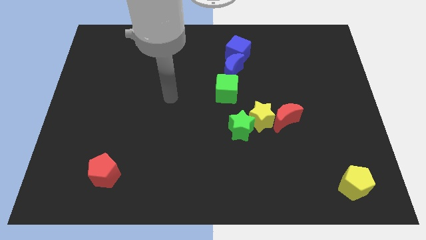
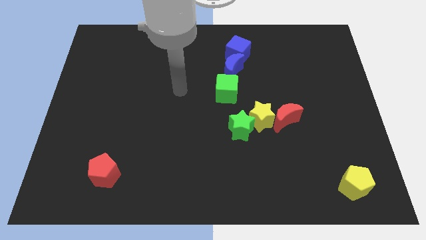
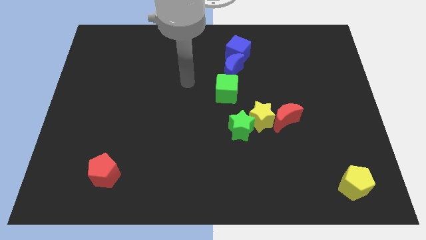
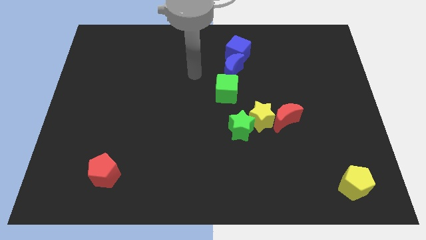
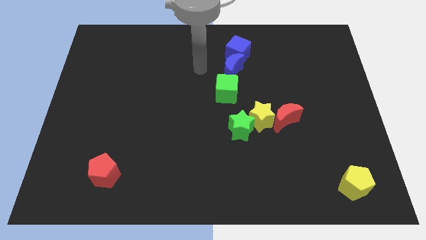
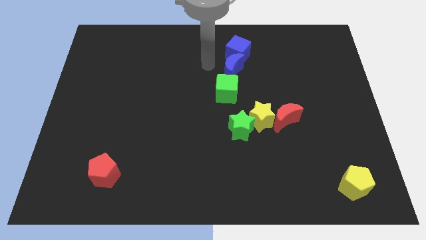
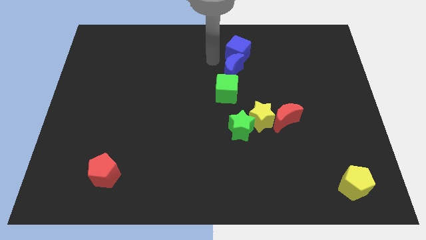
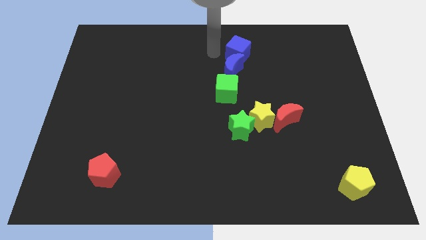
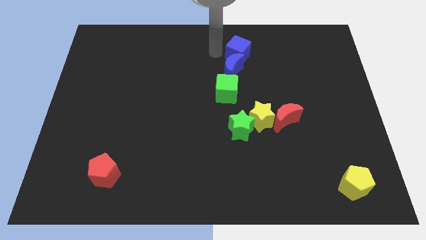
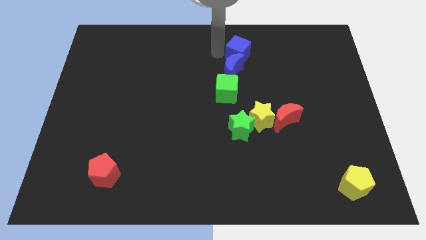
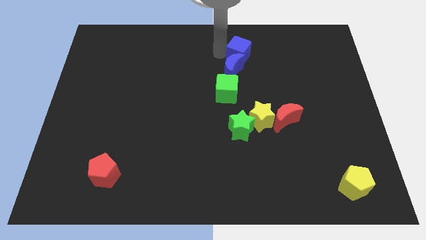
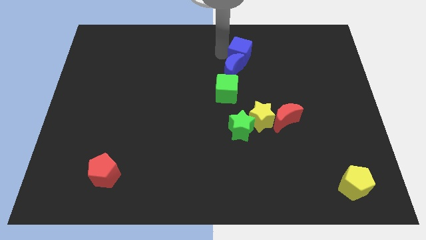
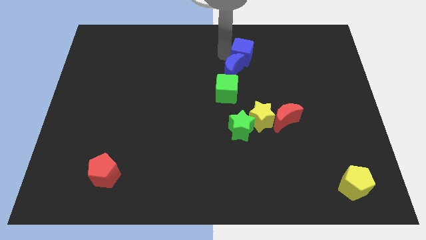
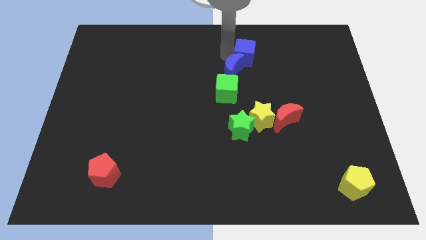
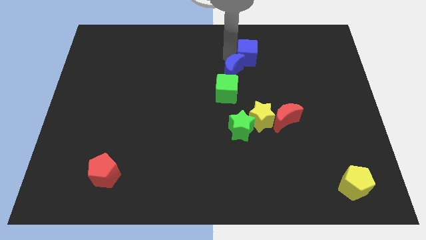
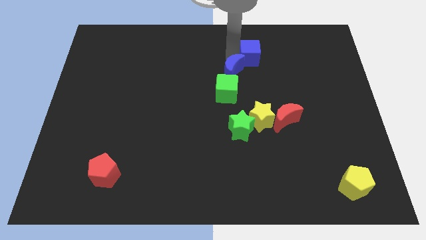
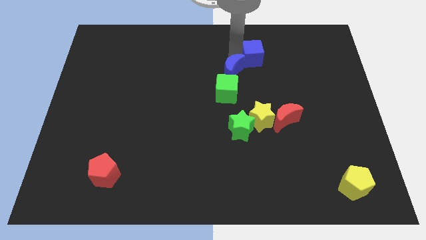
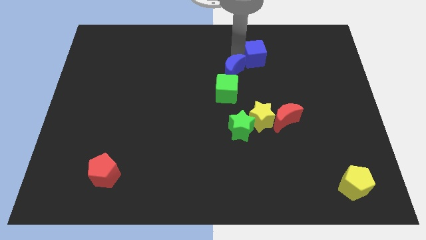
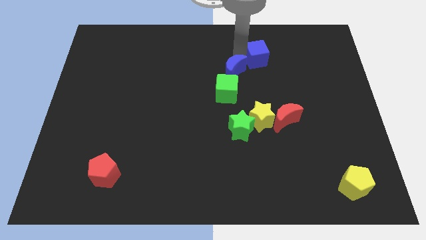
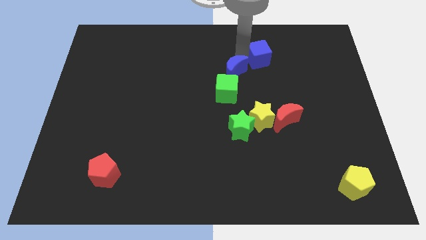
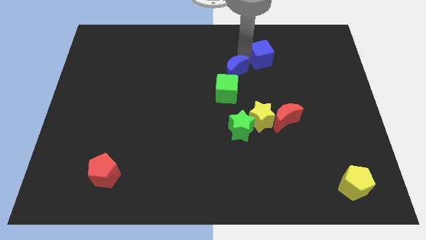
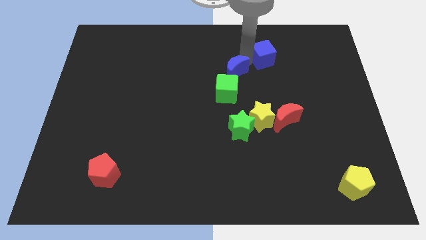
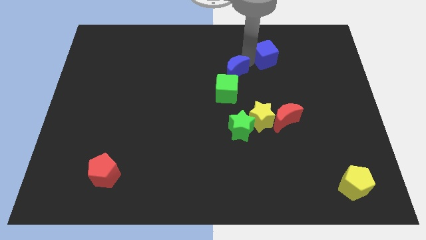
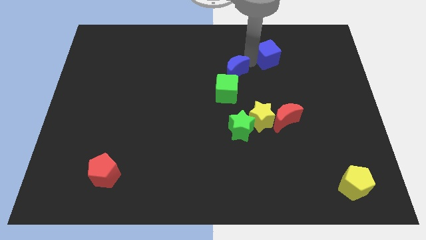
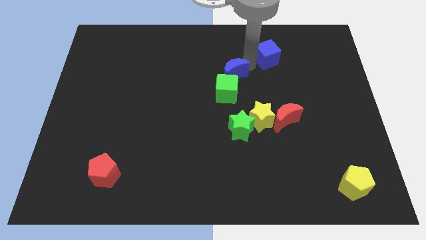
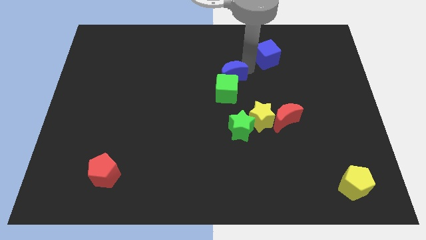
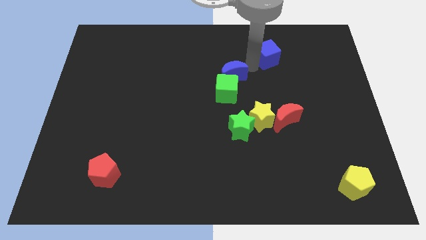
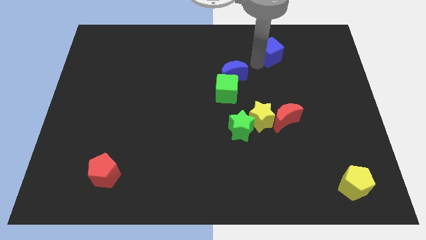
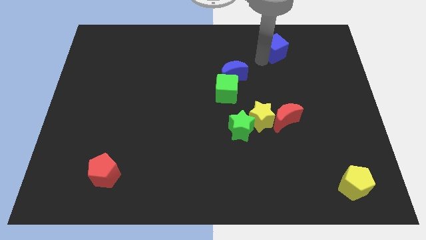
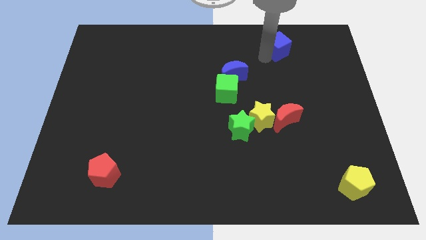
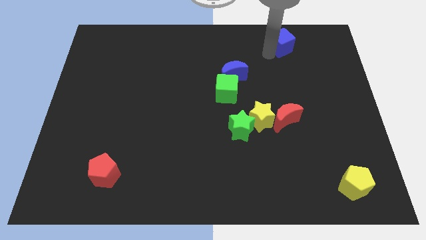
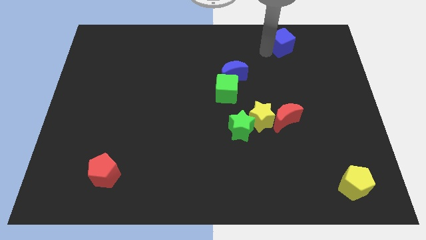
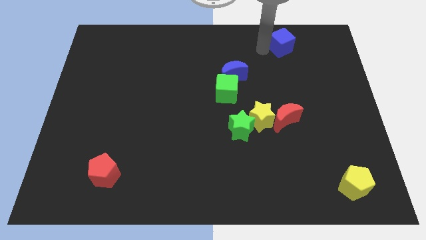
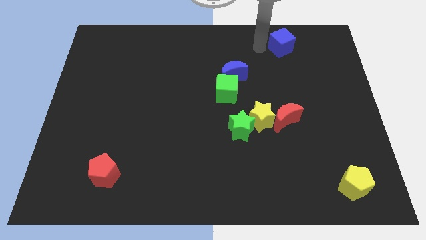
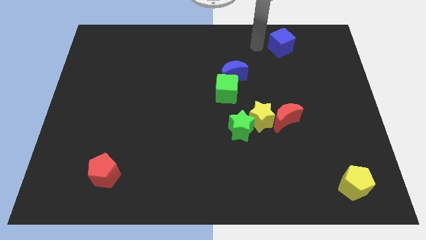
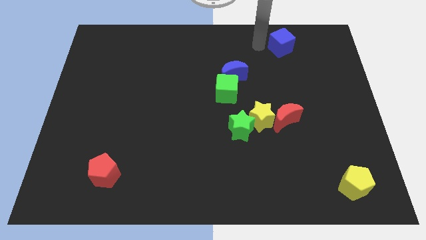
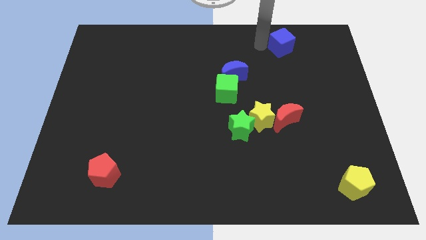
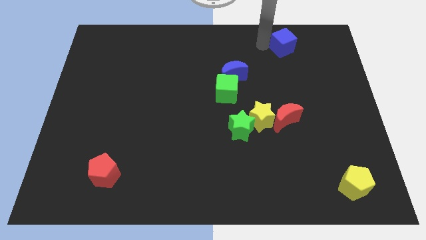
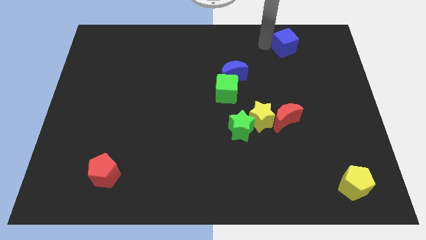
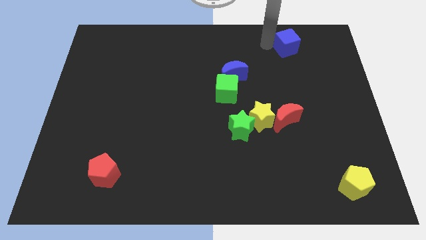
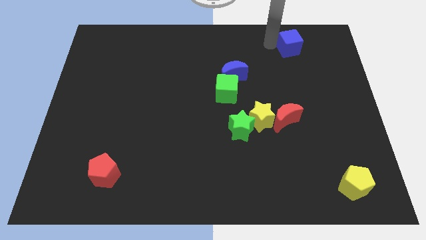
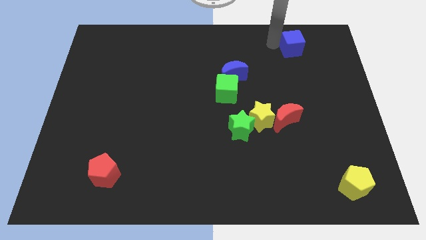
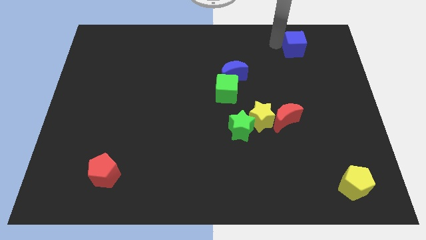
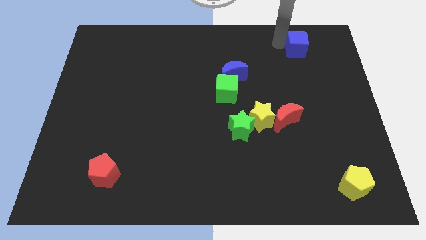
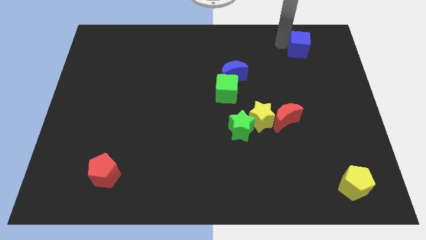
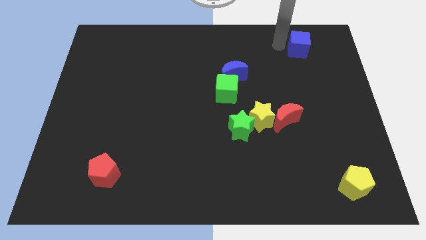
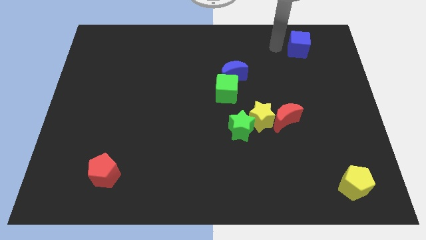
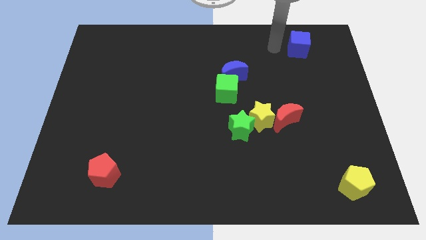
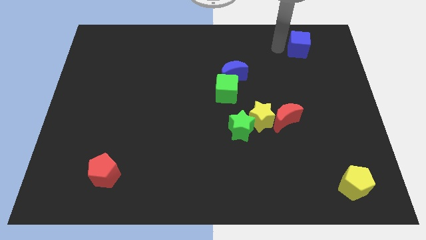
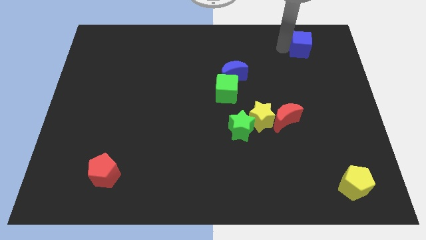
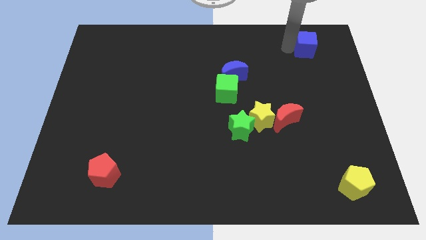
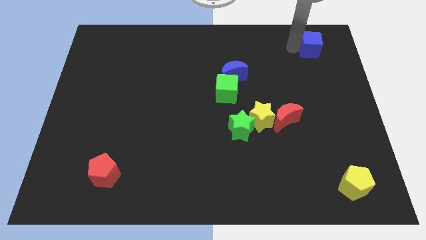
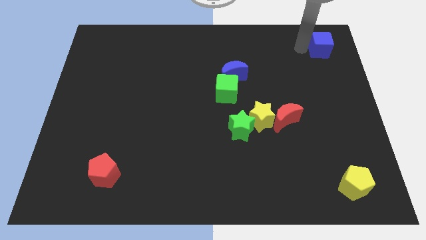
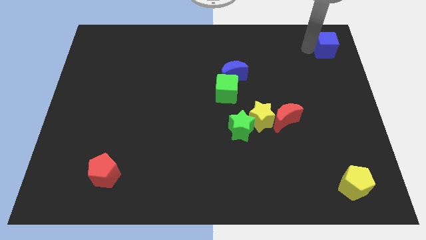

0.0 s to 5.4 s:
move the blue cube to the top right of the board

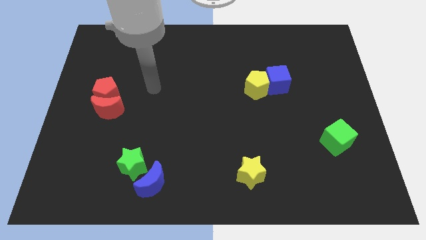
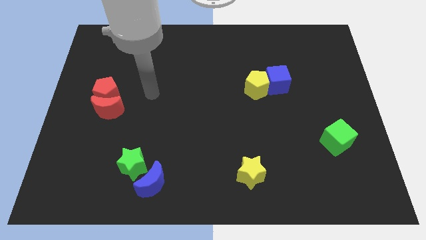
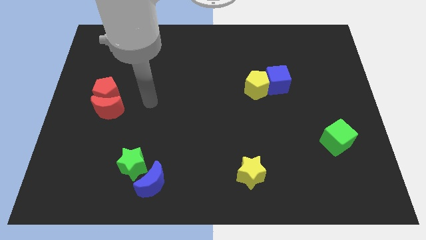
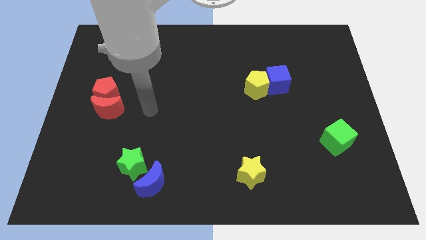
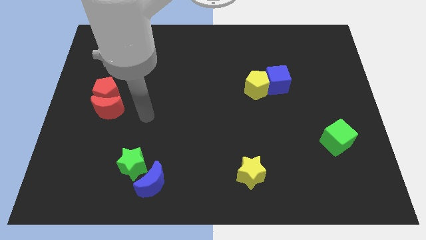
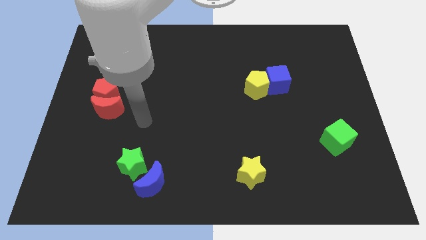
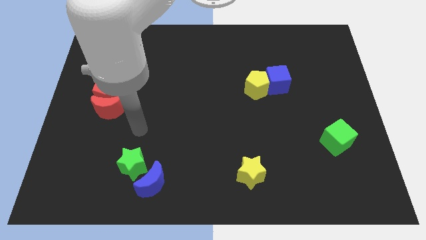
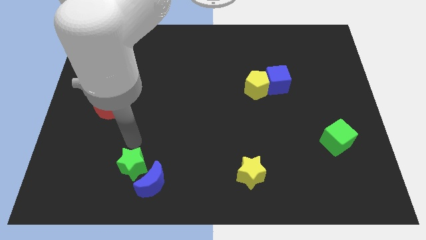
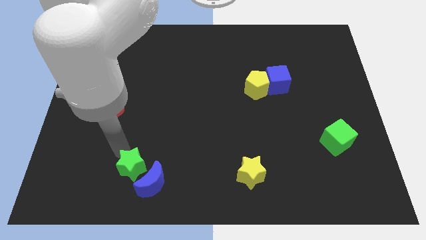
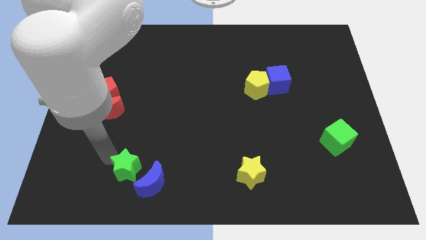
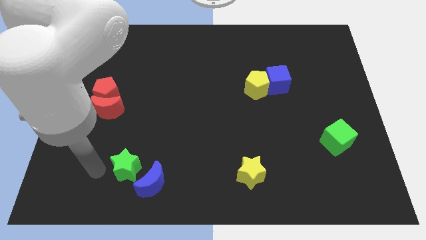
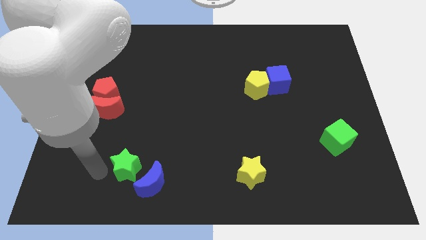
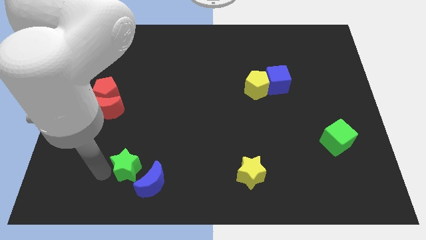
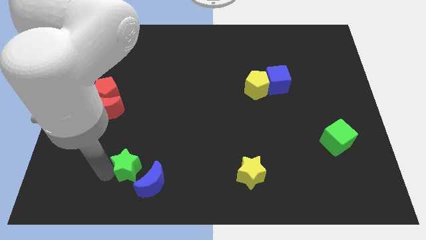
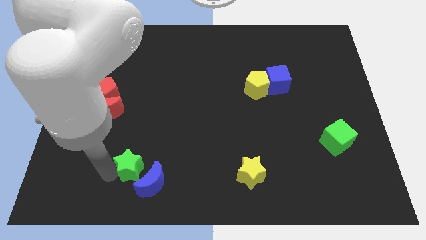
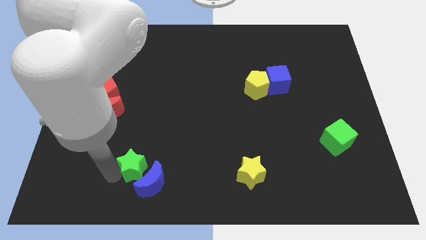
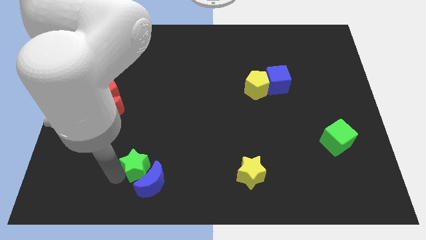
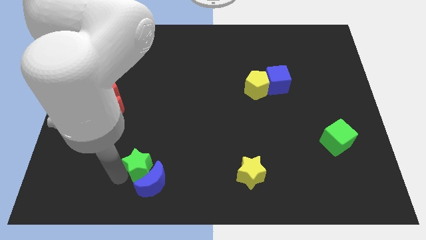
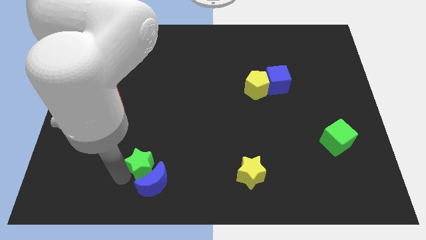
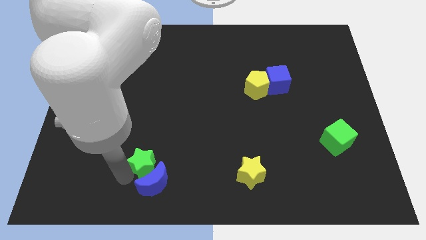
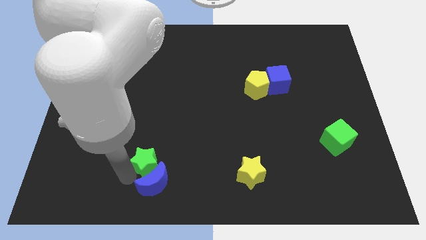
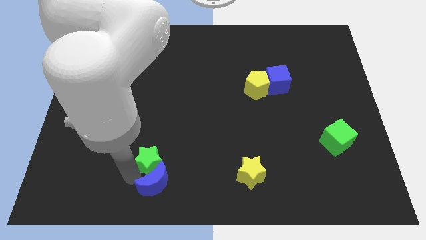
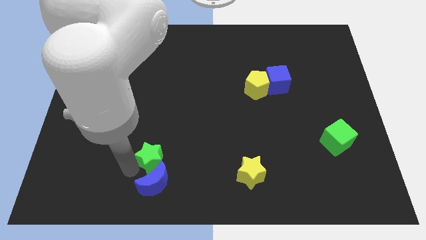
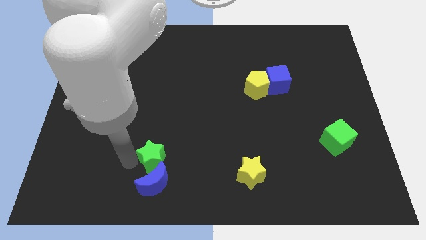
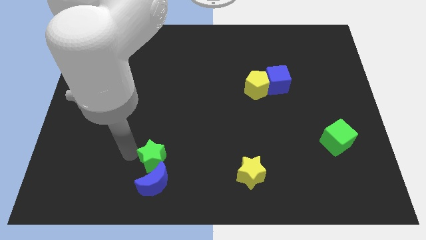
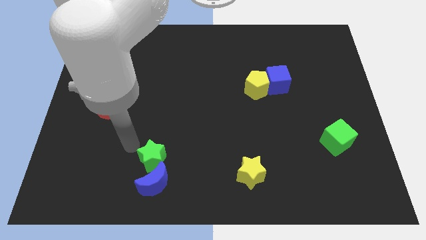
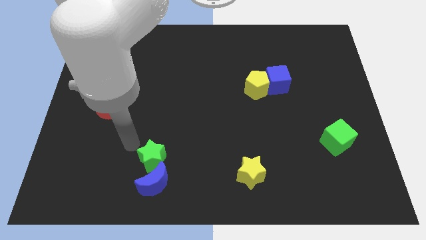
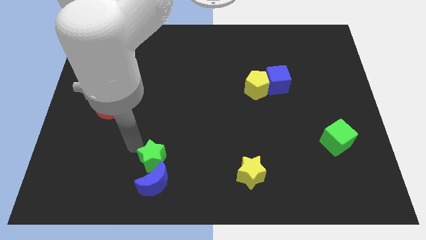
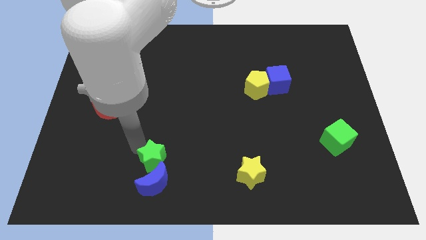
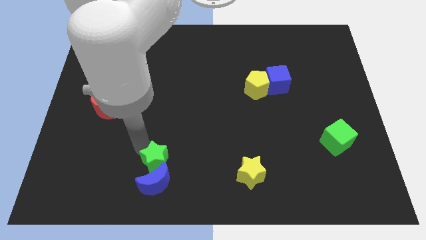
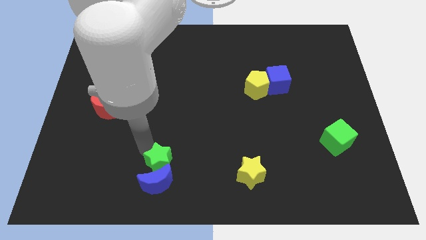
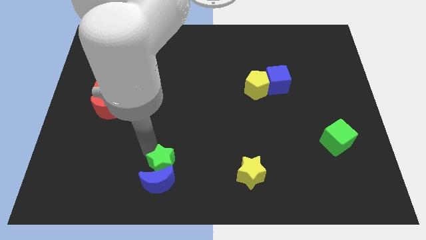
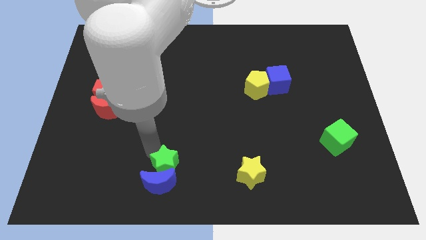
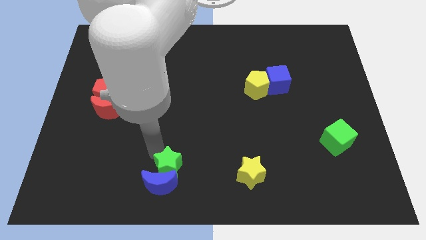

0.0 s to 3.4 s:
put the green star to the bottom side
